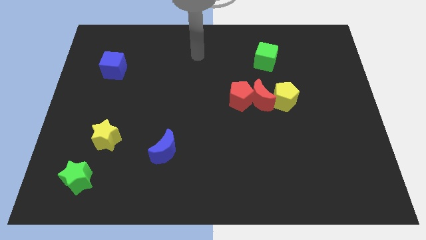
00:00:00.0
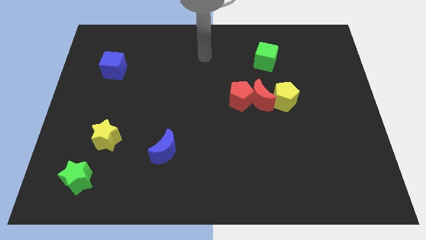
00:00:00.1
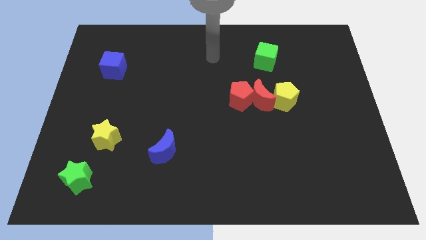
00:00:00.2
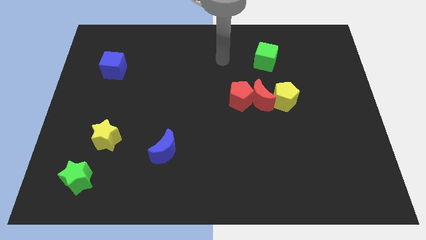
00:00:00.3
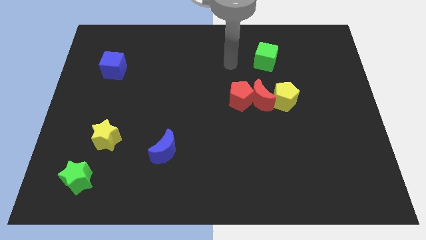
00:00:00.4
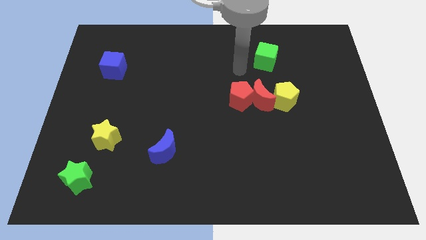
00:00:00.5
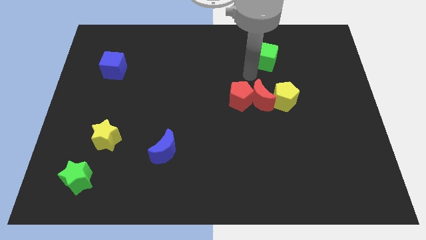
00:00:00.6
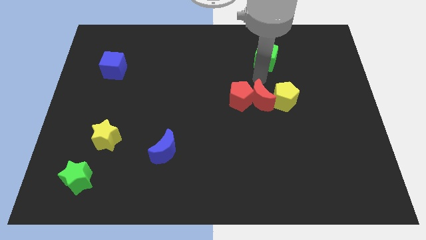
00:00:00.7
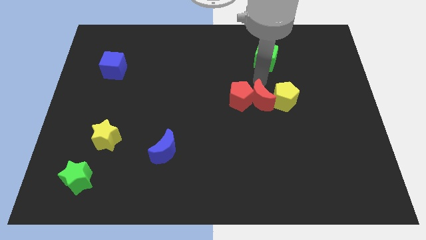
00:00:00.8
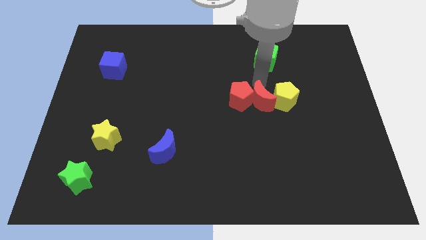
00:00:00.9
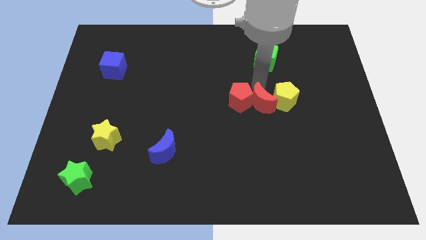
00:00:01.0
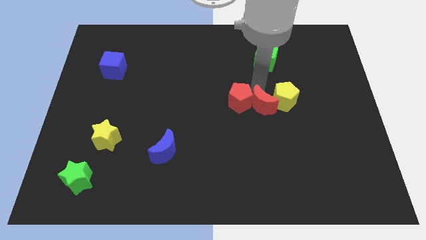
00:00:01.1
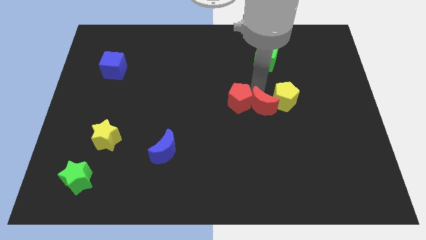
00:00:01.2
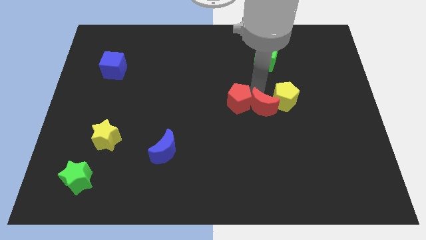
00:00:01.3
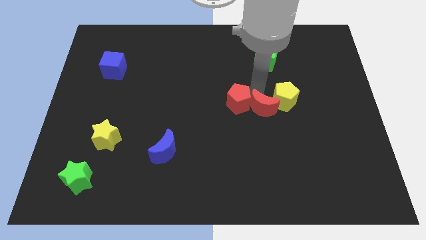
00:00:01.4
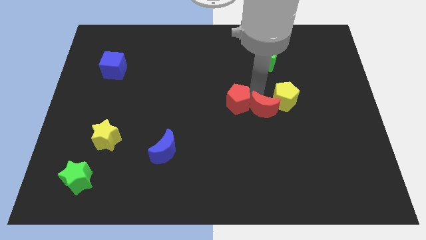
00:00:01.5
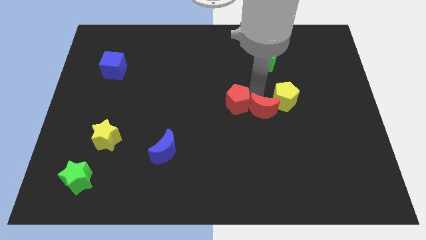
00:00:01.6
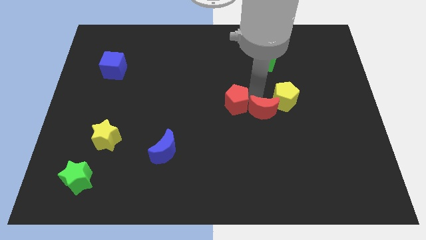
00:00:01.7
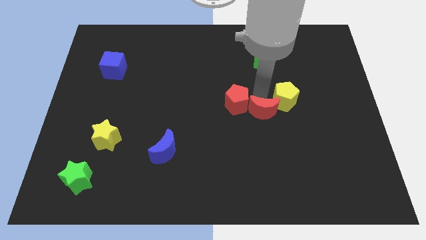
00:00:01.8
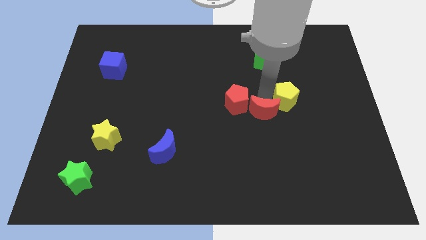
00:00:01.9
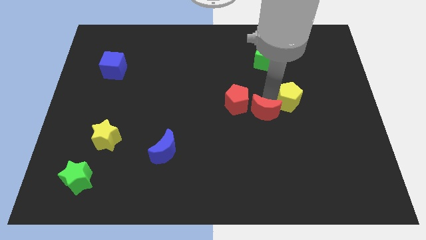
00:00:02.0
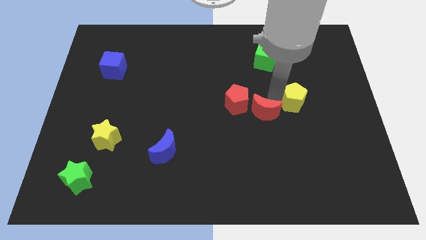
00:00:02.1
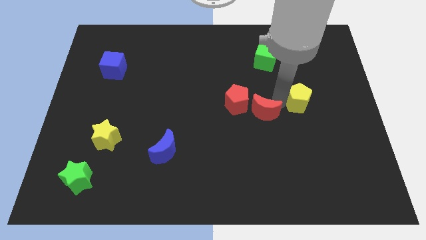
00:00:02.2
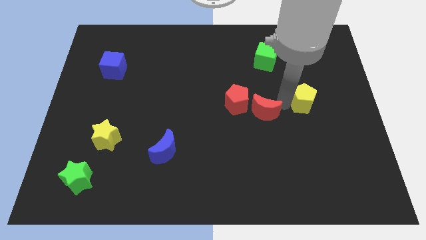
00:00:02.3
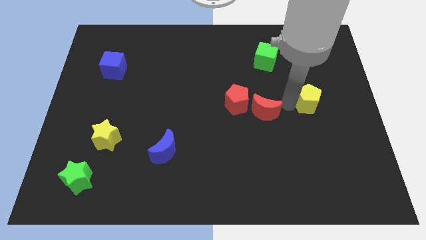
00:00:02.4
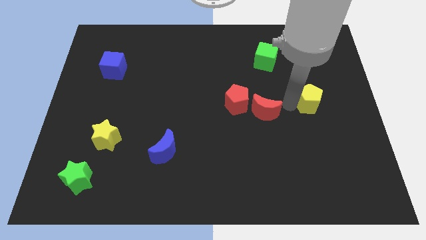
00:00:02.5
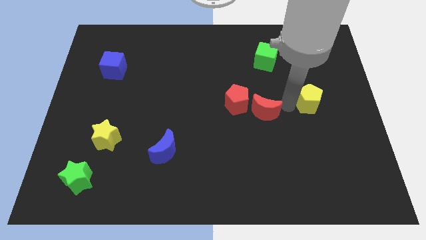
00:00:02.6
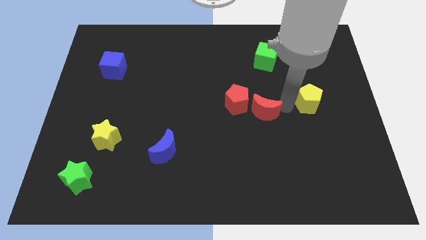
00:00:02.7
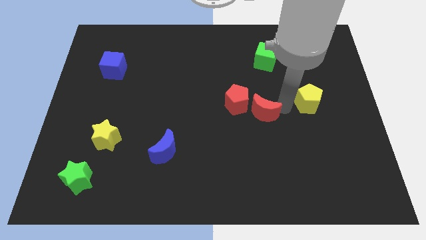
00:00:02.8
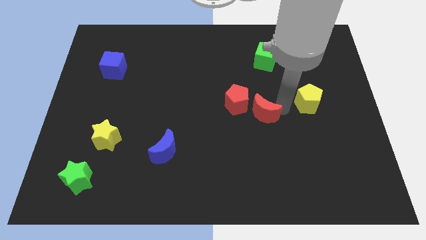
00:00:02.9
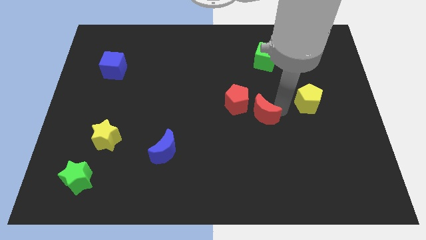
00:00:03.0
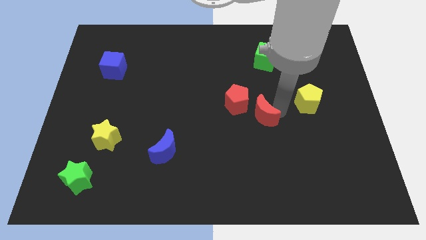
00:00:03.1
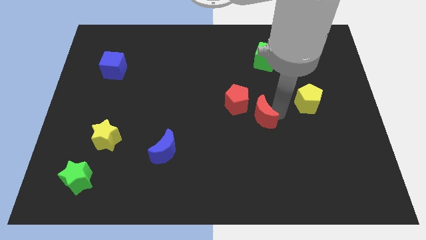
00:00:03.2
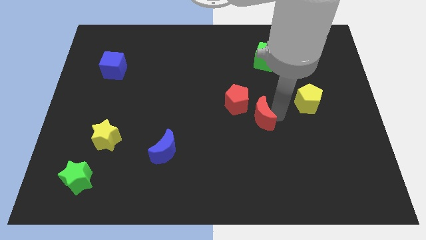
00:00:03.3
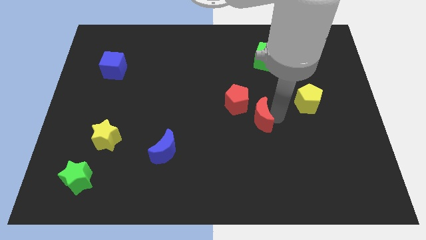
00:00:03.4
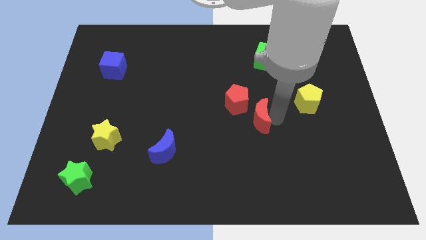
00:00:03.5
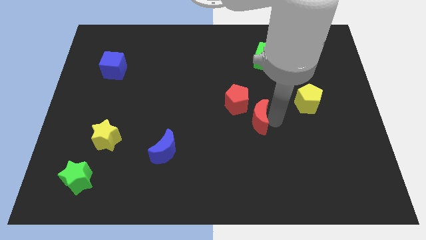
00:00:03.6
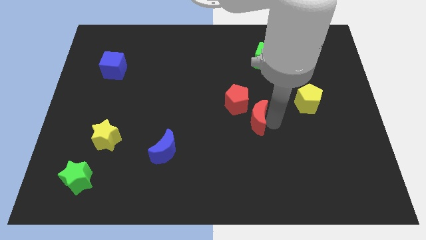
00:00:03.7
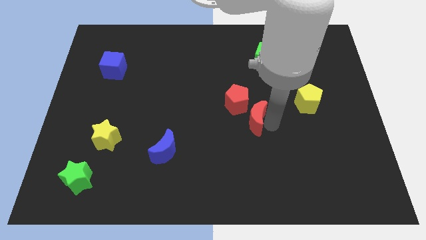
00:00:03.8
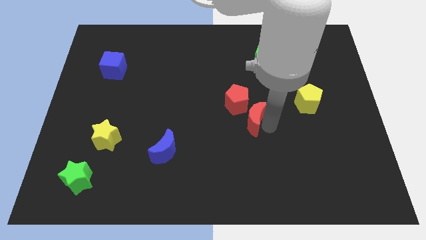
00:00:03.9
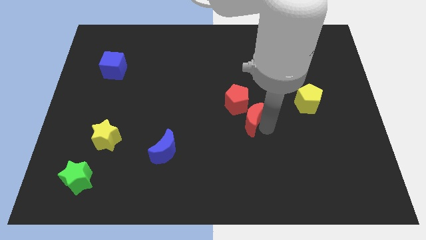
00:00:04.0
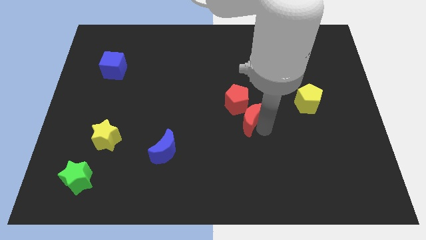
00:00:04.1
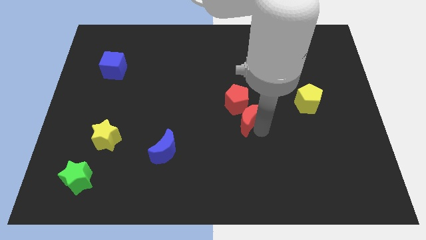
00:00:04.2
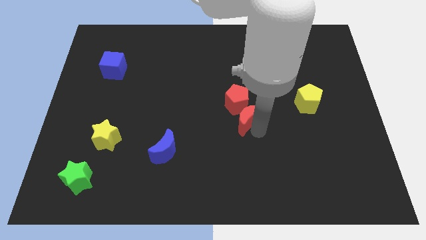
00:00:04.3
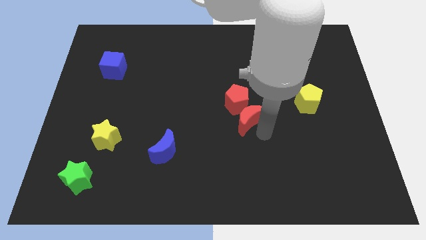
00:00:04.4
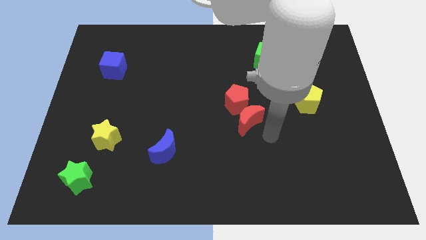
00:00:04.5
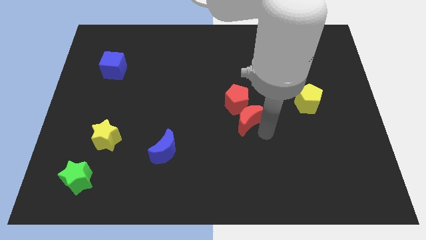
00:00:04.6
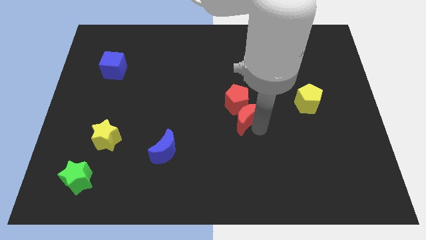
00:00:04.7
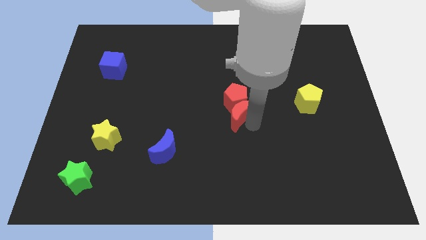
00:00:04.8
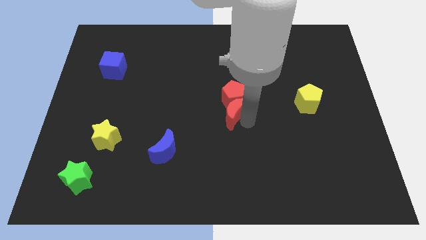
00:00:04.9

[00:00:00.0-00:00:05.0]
move the red moon away from the red pentagon and yellow pentagon

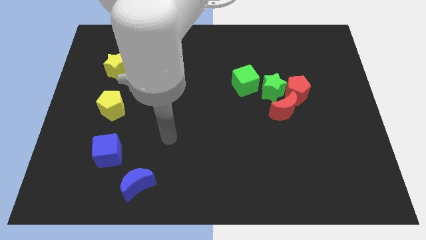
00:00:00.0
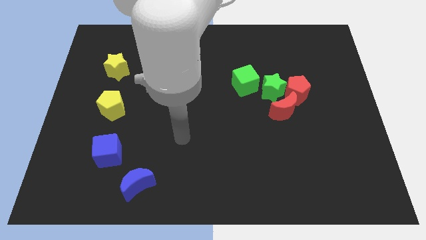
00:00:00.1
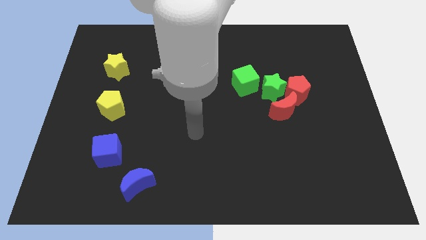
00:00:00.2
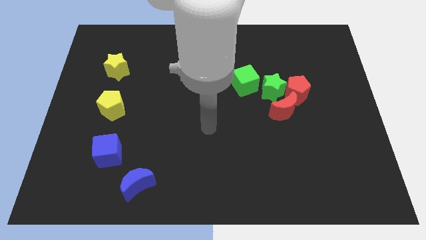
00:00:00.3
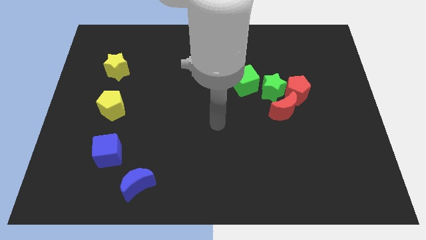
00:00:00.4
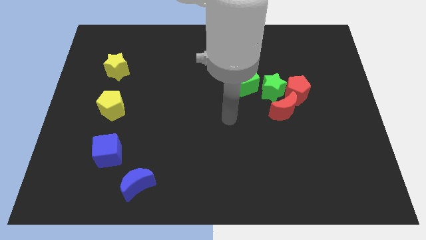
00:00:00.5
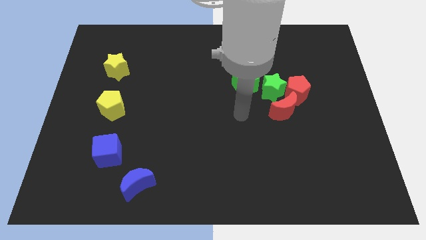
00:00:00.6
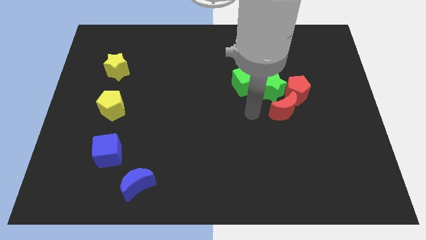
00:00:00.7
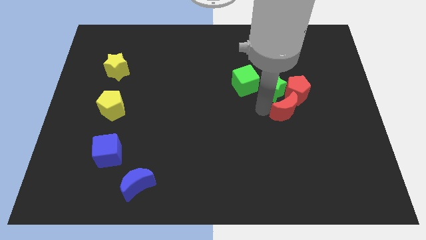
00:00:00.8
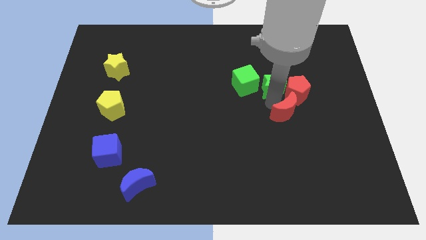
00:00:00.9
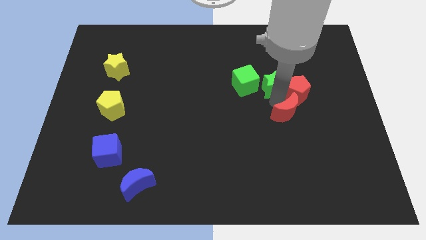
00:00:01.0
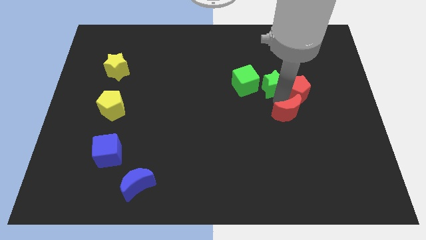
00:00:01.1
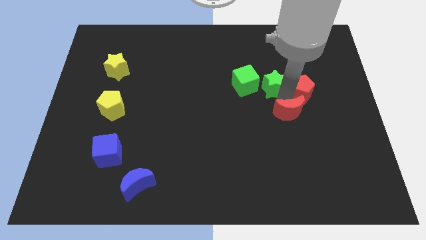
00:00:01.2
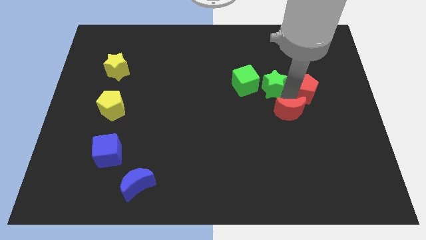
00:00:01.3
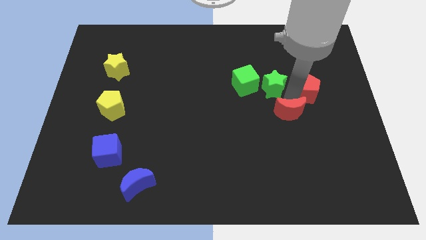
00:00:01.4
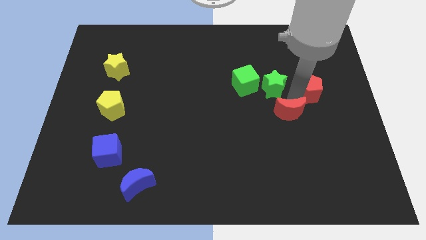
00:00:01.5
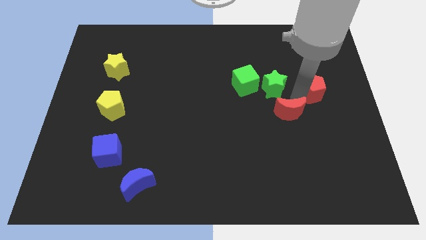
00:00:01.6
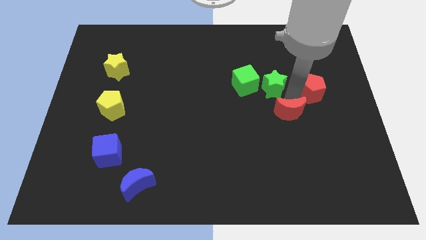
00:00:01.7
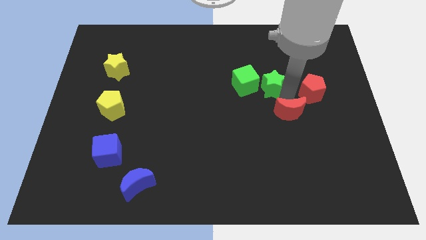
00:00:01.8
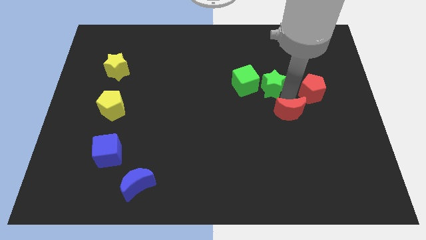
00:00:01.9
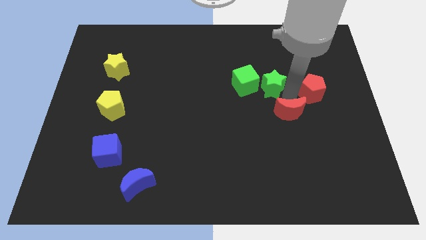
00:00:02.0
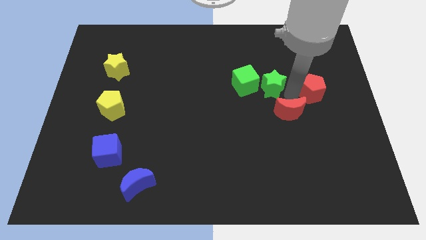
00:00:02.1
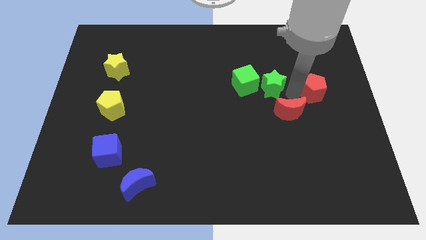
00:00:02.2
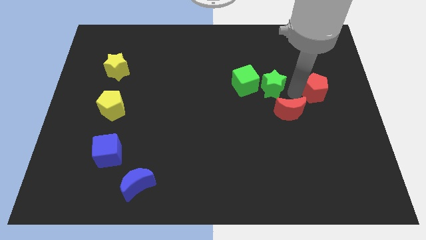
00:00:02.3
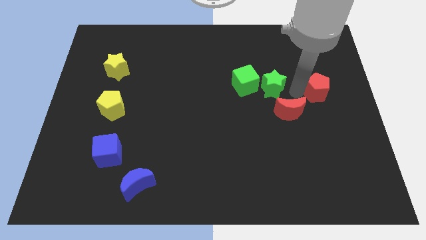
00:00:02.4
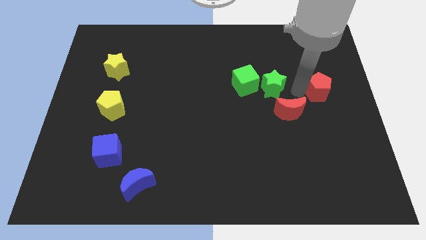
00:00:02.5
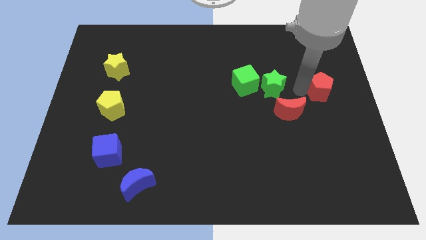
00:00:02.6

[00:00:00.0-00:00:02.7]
separate the red pentagon from the green star and red moon

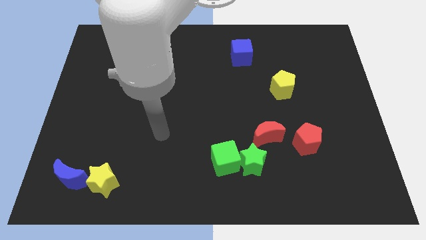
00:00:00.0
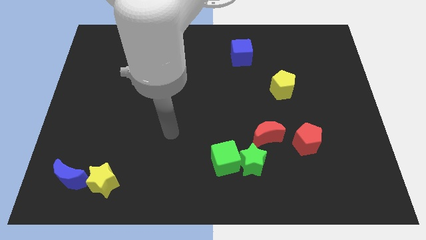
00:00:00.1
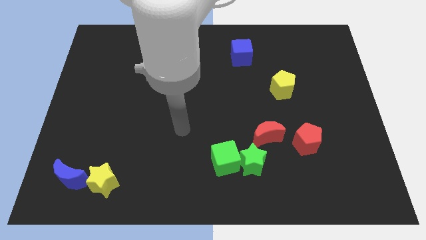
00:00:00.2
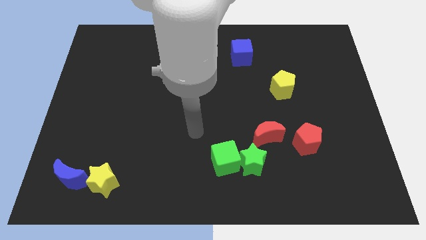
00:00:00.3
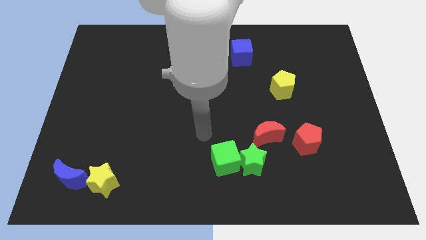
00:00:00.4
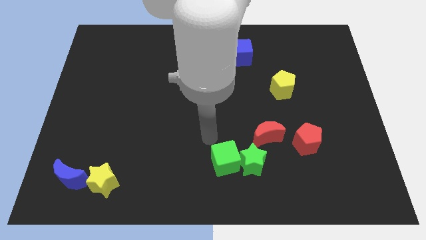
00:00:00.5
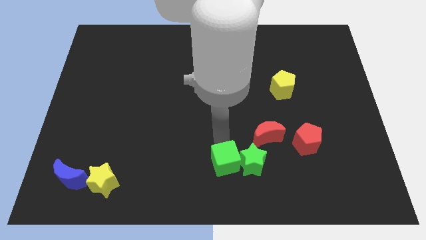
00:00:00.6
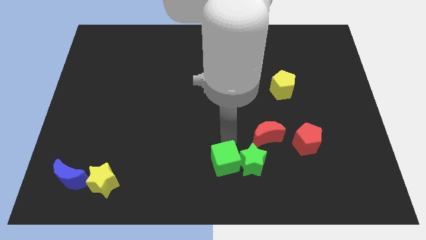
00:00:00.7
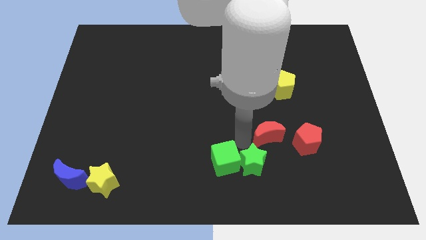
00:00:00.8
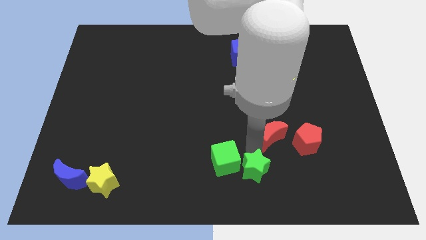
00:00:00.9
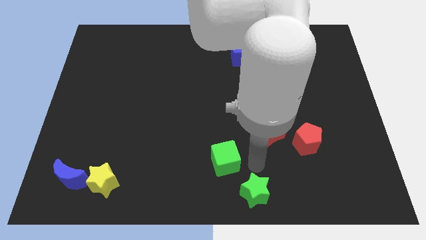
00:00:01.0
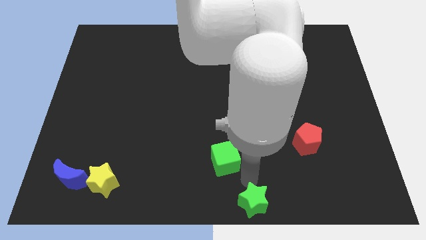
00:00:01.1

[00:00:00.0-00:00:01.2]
separate the green cube from the green star

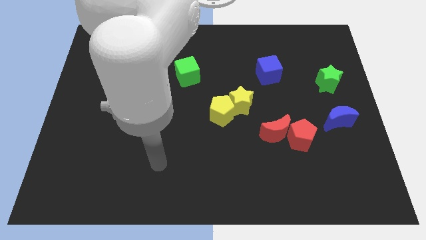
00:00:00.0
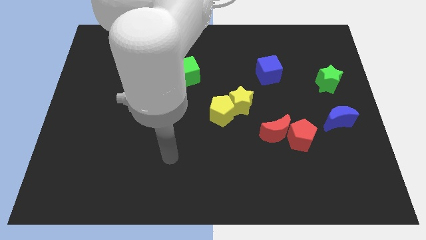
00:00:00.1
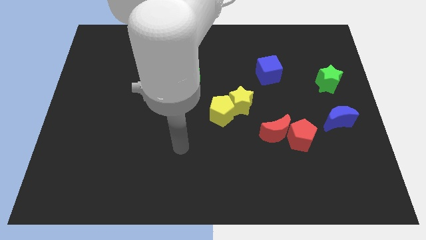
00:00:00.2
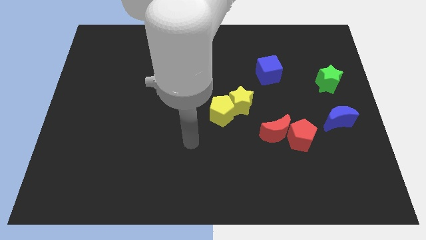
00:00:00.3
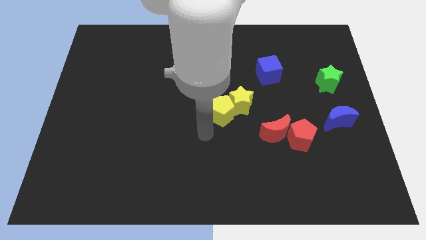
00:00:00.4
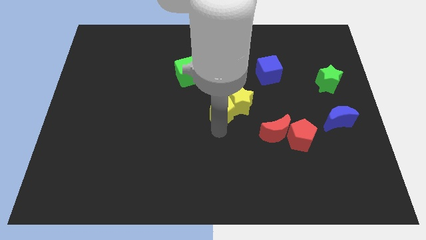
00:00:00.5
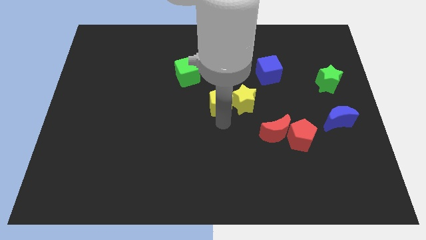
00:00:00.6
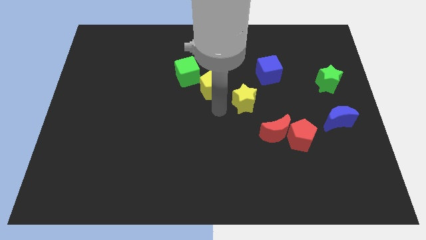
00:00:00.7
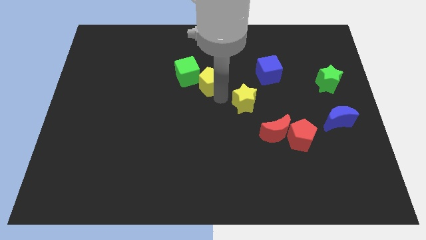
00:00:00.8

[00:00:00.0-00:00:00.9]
separate the yellow star from the yellow pentagon
